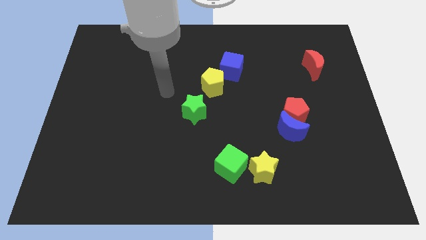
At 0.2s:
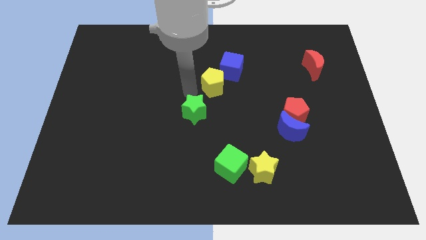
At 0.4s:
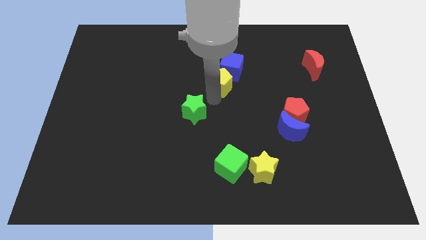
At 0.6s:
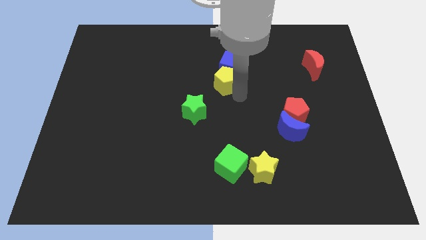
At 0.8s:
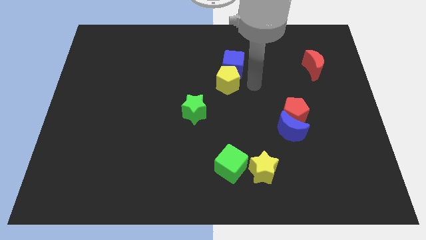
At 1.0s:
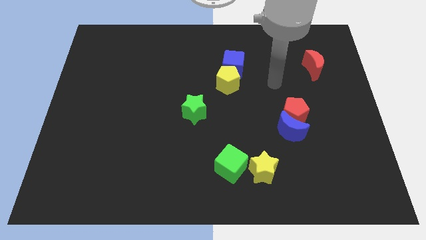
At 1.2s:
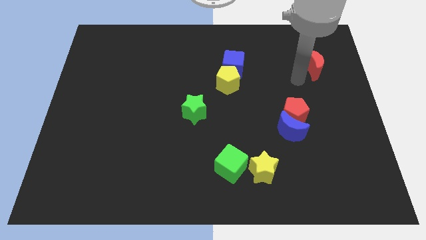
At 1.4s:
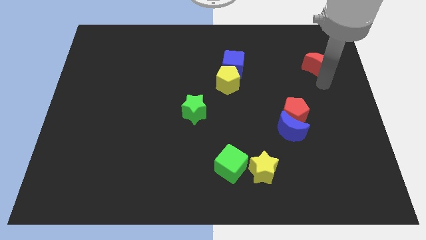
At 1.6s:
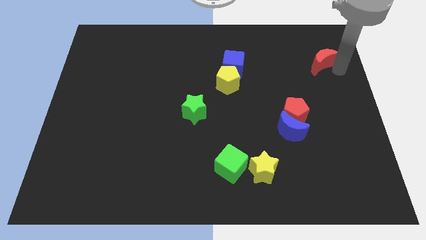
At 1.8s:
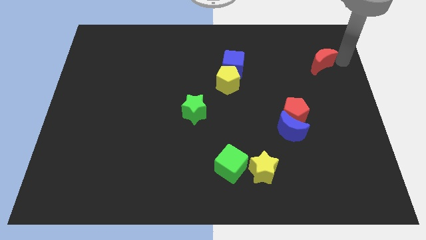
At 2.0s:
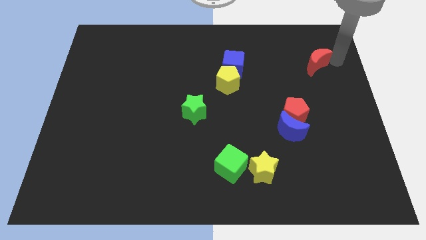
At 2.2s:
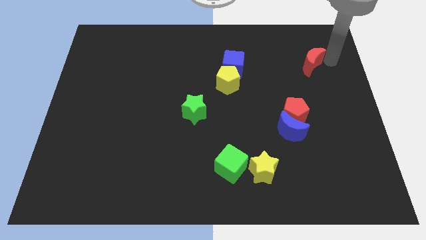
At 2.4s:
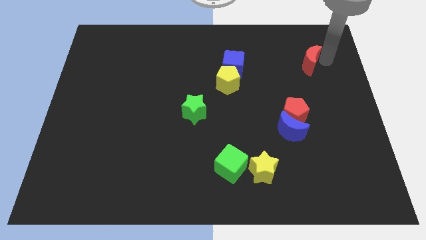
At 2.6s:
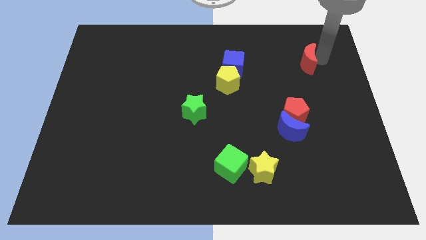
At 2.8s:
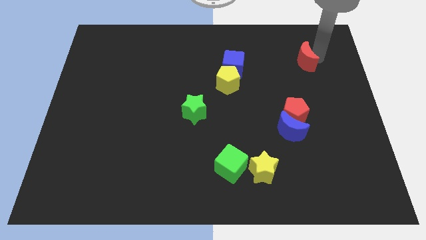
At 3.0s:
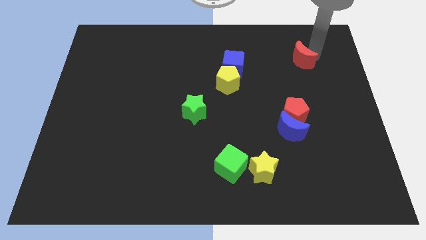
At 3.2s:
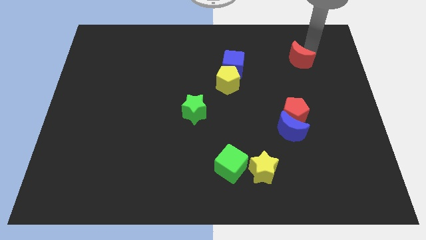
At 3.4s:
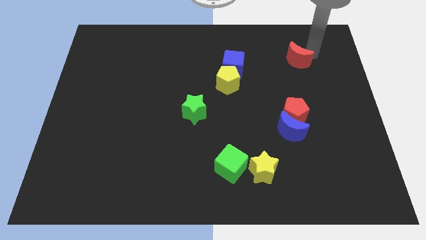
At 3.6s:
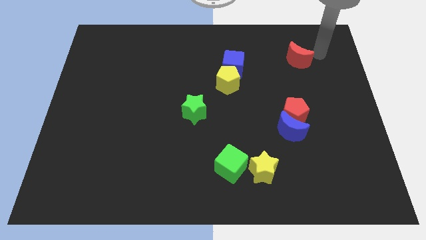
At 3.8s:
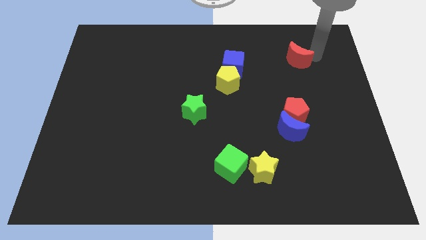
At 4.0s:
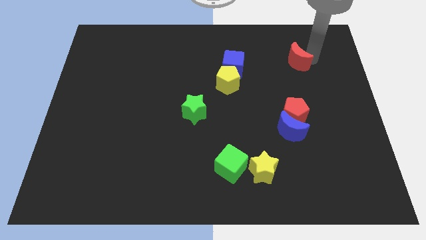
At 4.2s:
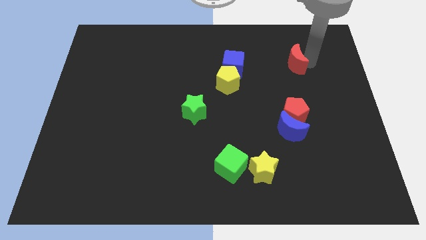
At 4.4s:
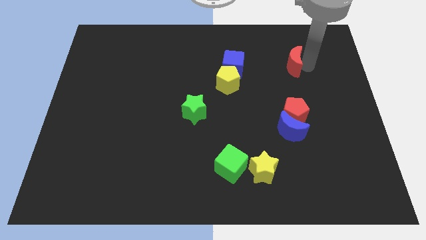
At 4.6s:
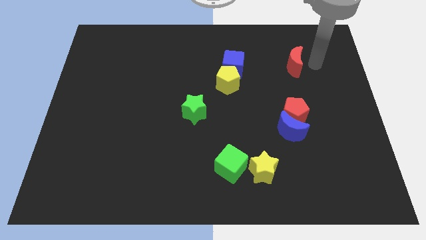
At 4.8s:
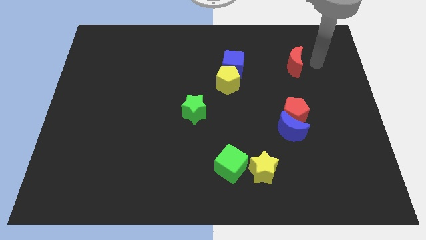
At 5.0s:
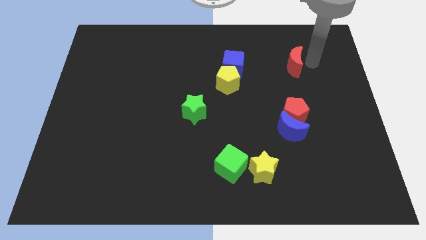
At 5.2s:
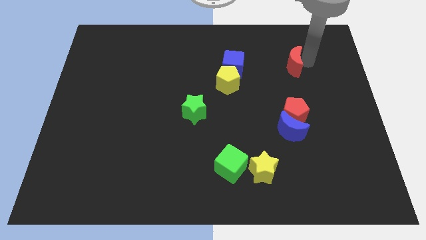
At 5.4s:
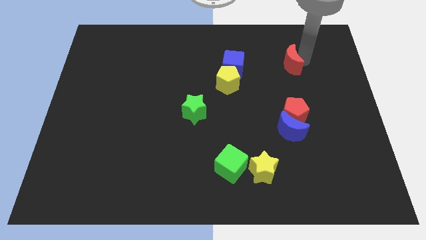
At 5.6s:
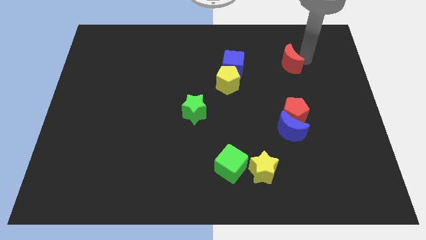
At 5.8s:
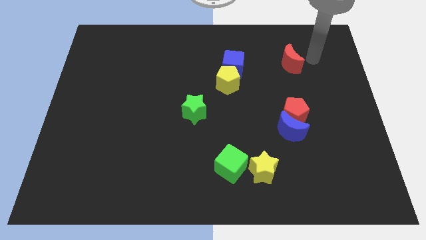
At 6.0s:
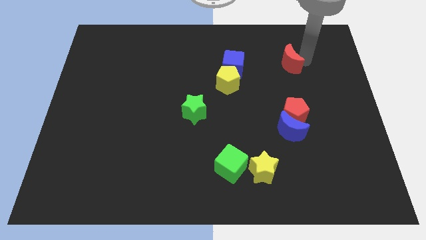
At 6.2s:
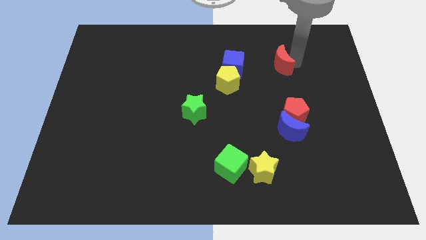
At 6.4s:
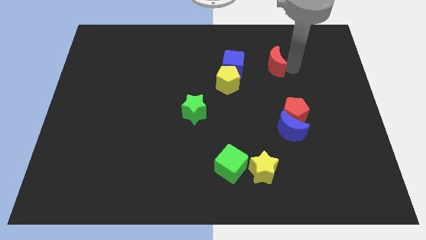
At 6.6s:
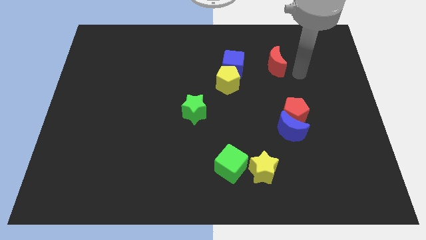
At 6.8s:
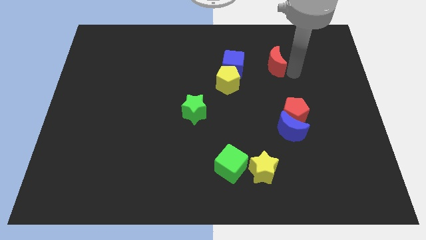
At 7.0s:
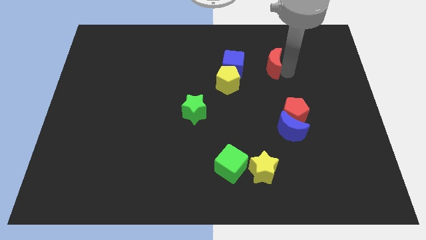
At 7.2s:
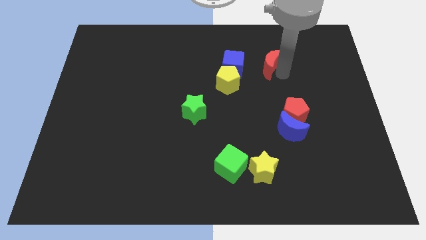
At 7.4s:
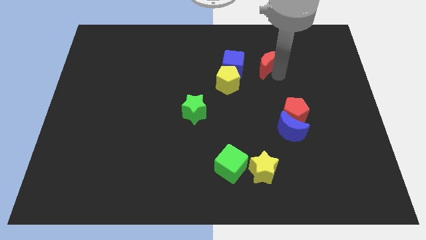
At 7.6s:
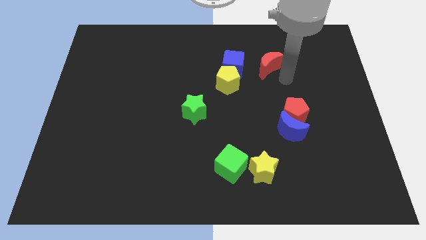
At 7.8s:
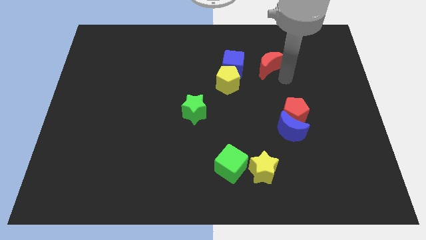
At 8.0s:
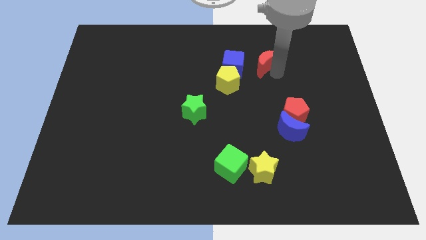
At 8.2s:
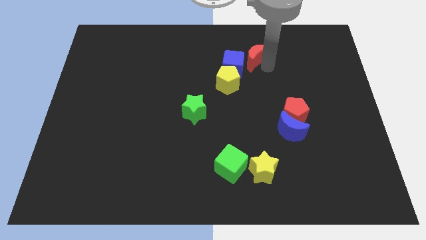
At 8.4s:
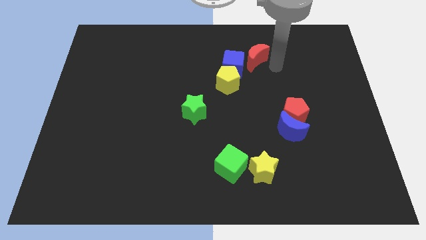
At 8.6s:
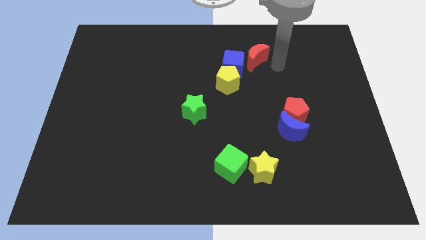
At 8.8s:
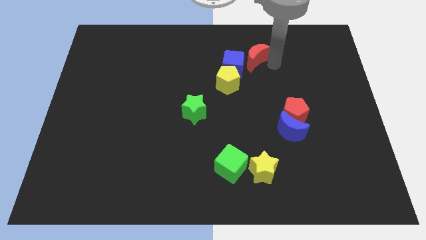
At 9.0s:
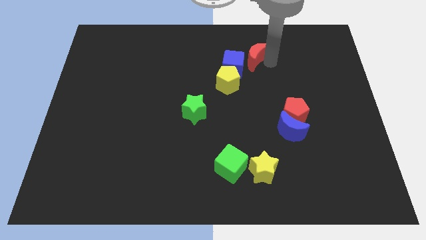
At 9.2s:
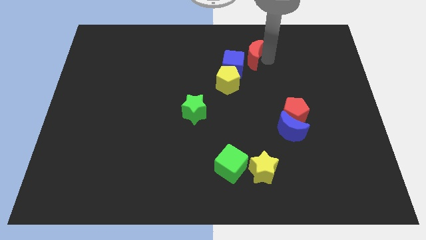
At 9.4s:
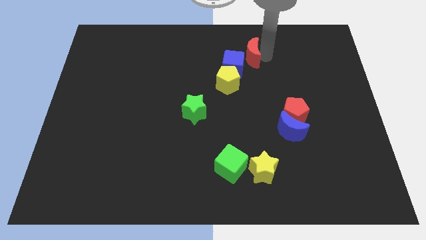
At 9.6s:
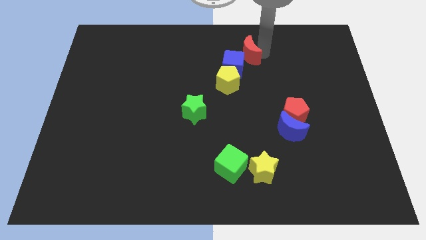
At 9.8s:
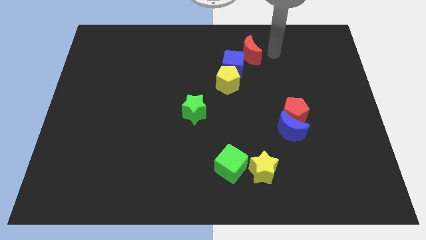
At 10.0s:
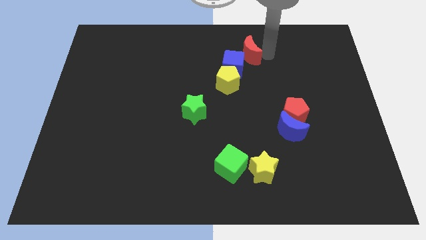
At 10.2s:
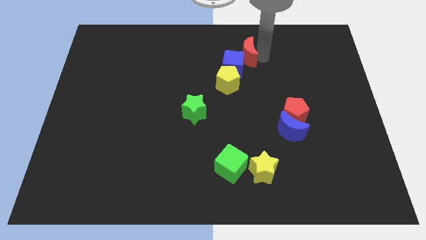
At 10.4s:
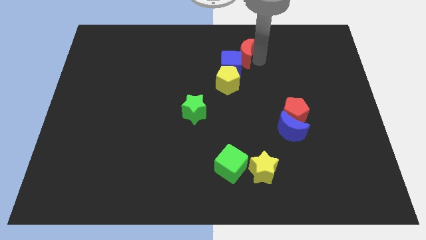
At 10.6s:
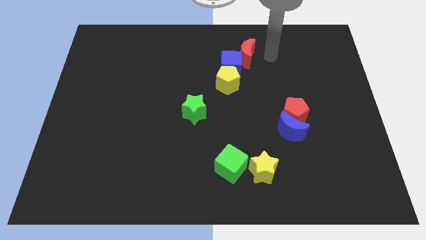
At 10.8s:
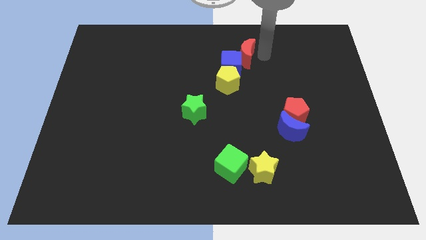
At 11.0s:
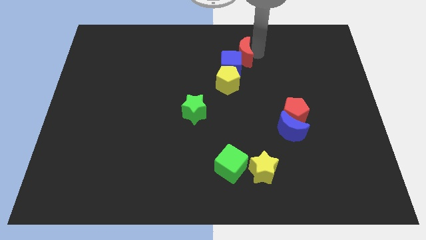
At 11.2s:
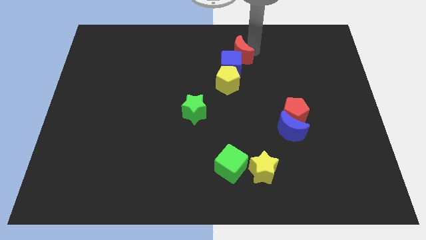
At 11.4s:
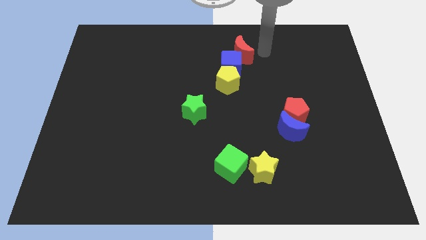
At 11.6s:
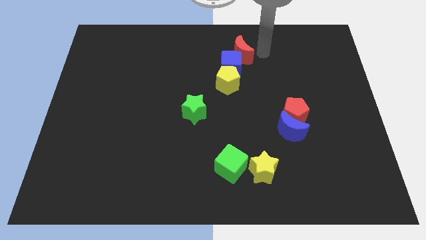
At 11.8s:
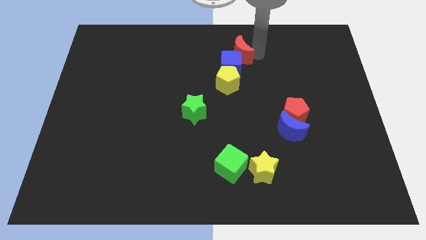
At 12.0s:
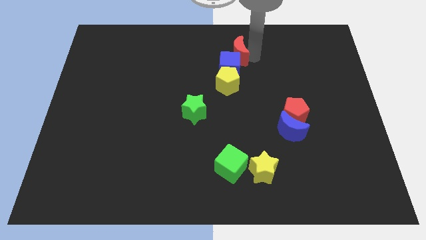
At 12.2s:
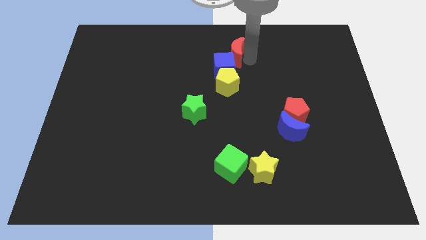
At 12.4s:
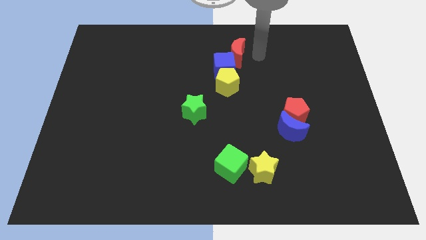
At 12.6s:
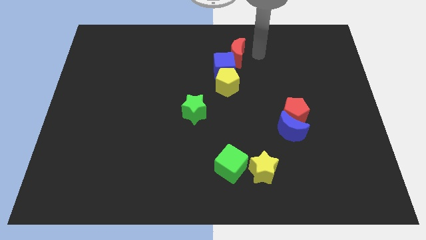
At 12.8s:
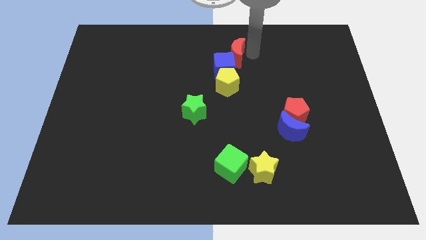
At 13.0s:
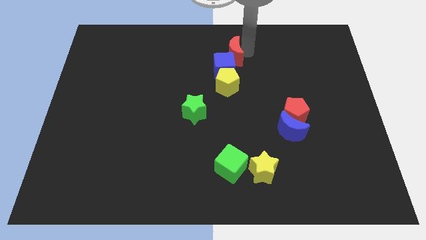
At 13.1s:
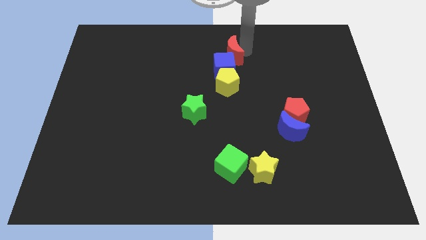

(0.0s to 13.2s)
slide the red moon to the left

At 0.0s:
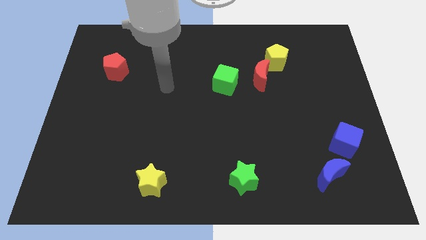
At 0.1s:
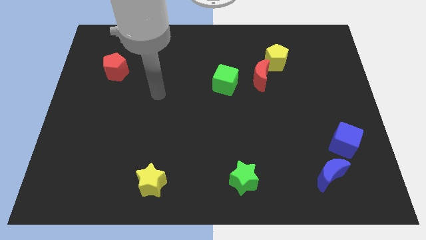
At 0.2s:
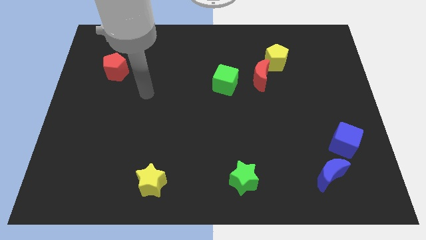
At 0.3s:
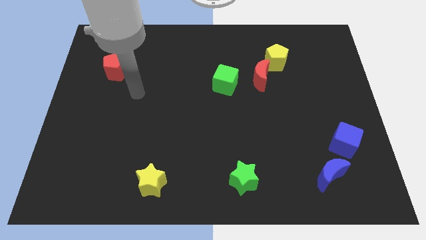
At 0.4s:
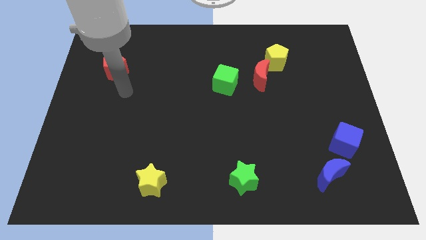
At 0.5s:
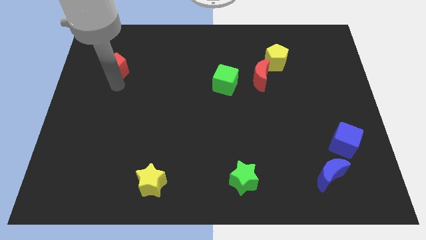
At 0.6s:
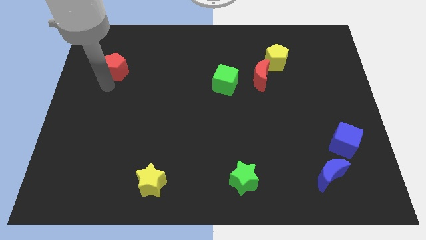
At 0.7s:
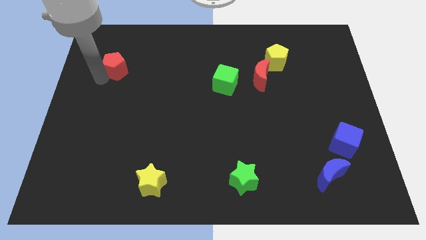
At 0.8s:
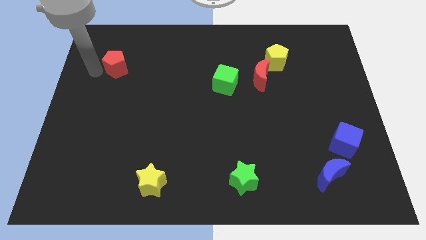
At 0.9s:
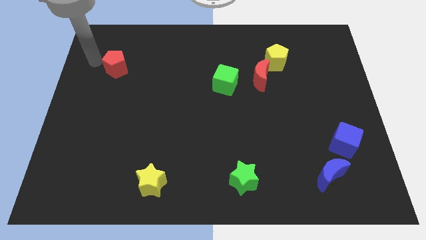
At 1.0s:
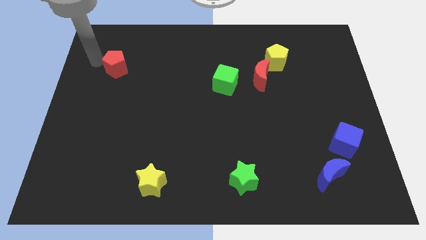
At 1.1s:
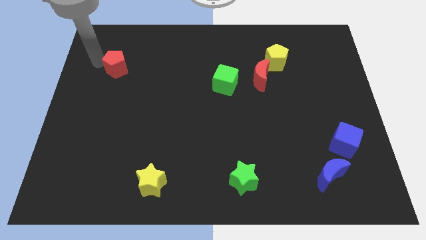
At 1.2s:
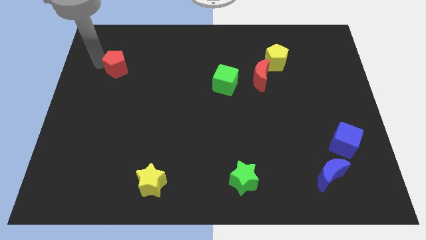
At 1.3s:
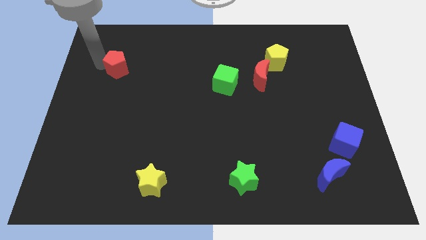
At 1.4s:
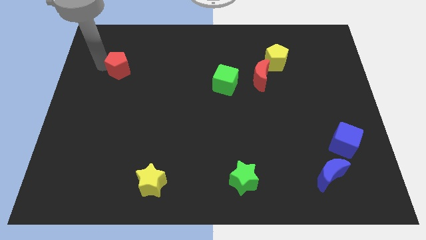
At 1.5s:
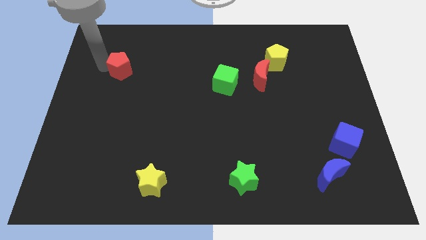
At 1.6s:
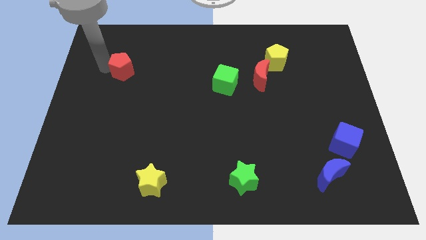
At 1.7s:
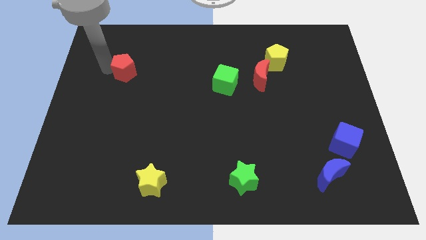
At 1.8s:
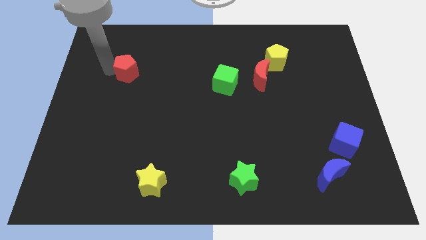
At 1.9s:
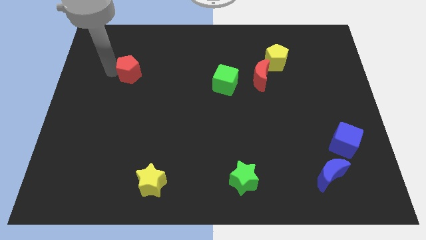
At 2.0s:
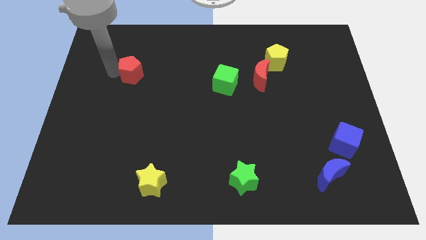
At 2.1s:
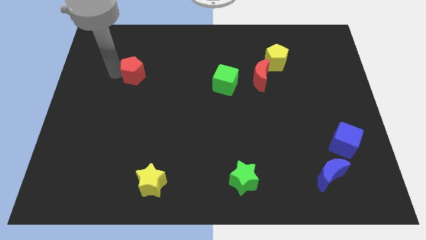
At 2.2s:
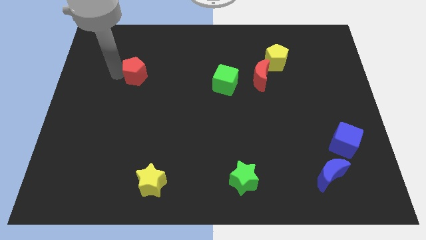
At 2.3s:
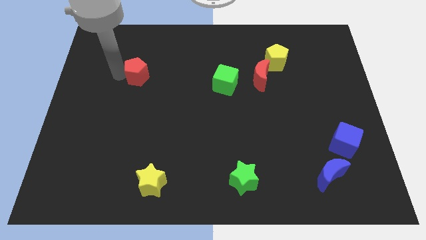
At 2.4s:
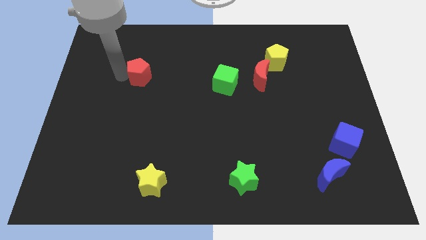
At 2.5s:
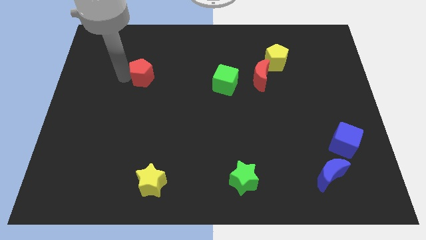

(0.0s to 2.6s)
slightly push the red pentagon to the right
